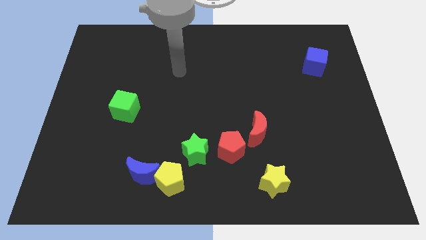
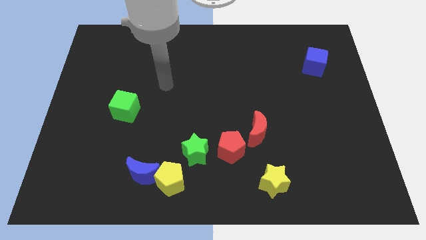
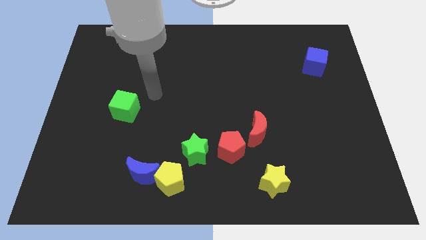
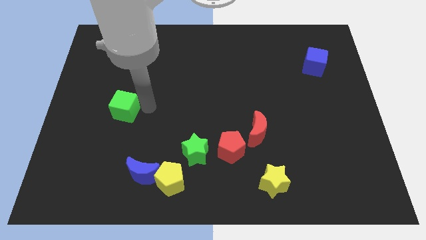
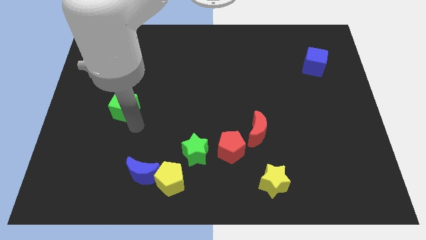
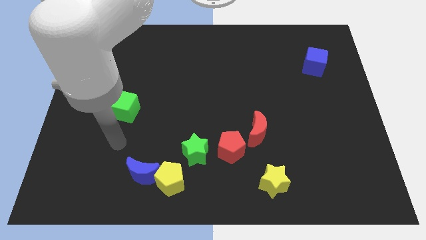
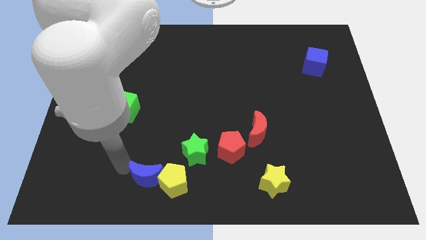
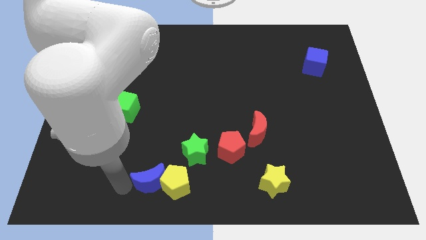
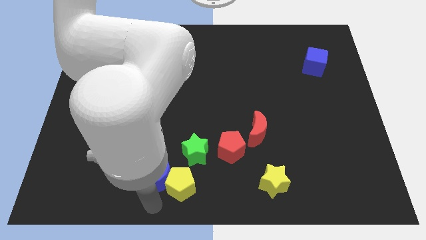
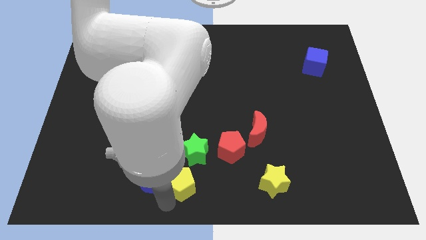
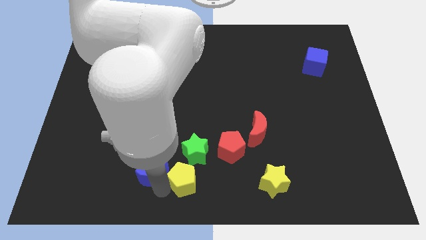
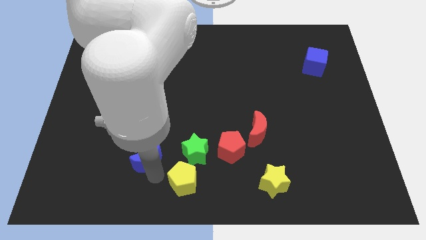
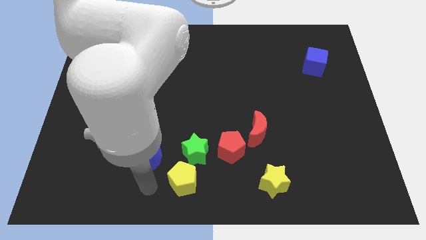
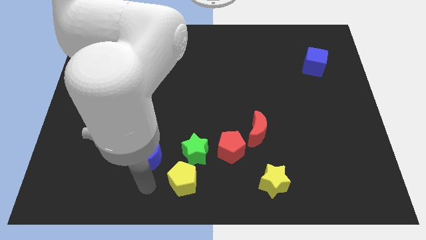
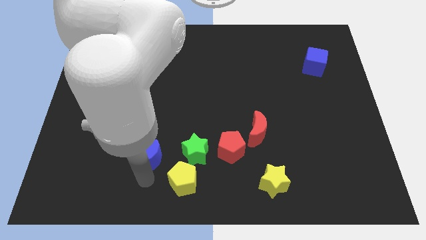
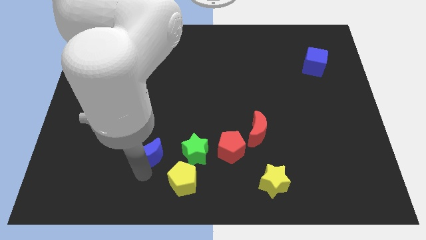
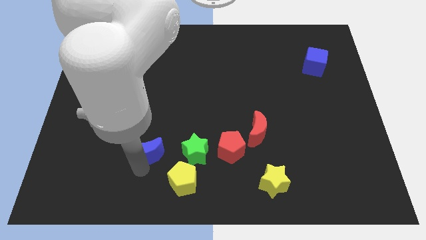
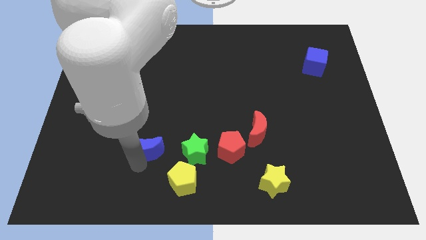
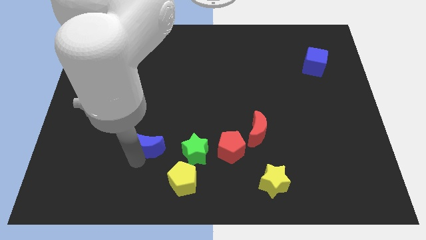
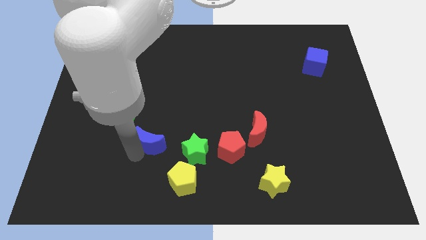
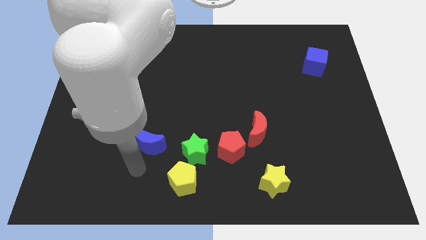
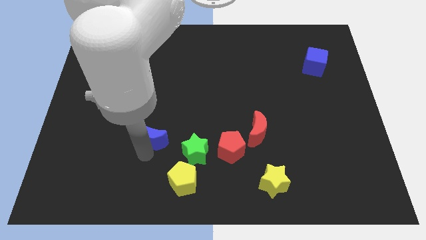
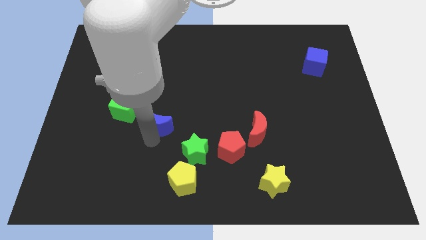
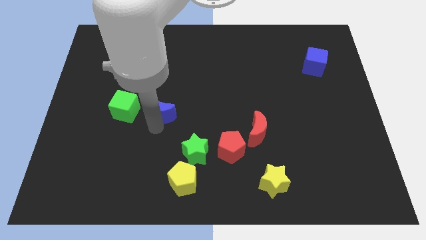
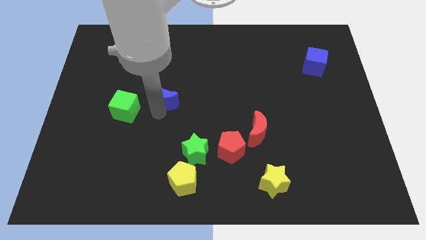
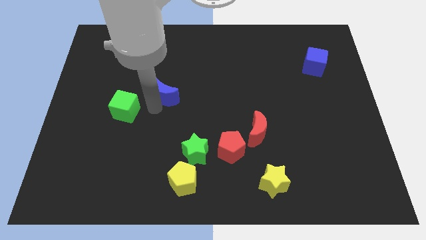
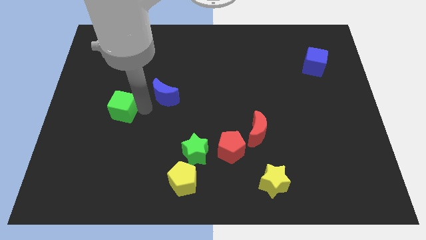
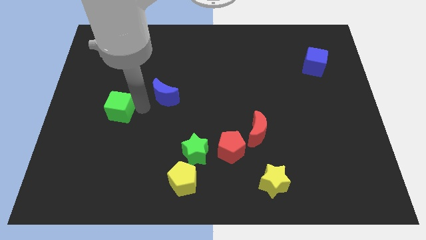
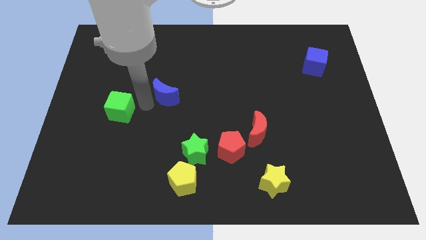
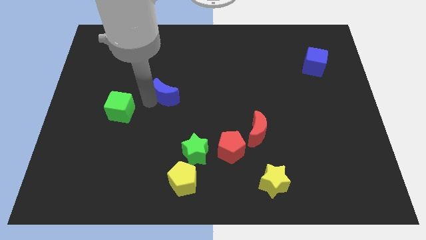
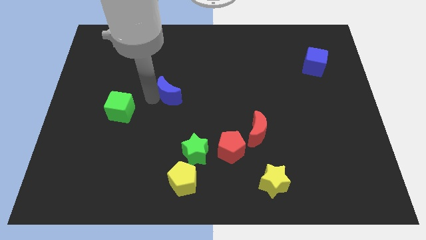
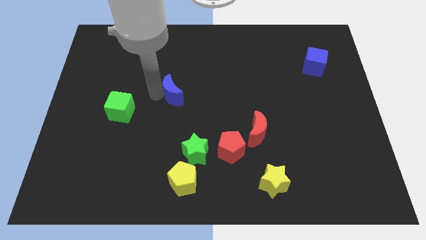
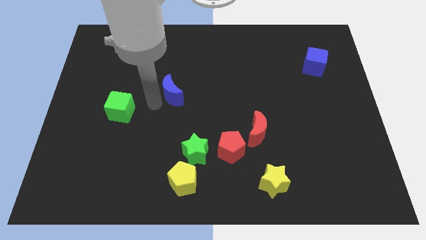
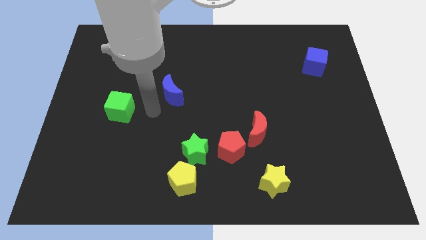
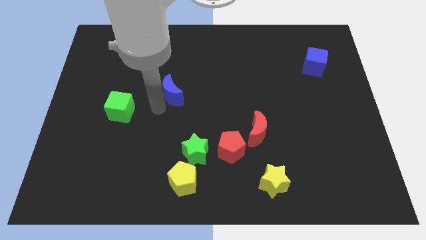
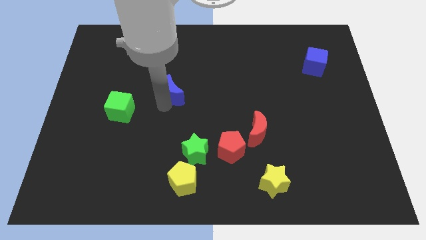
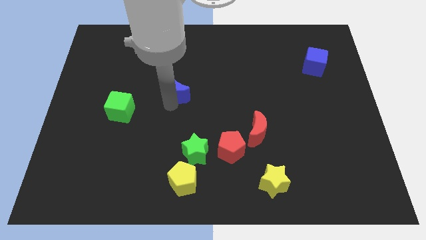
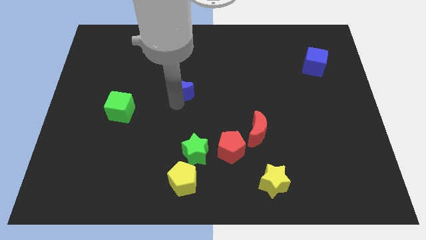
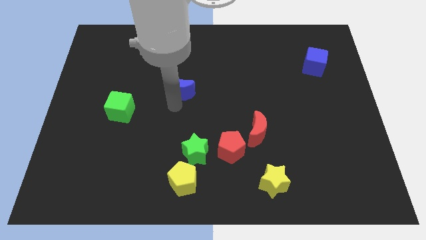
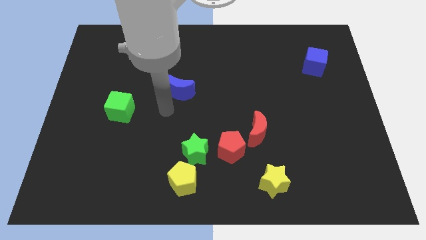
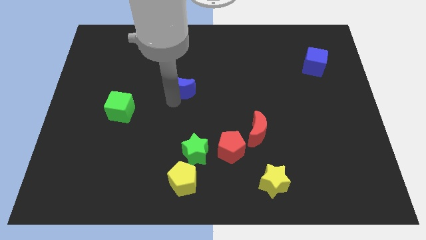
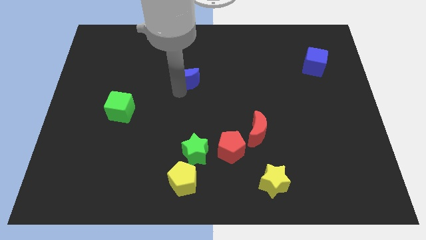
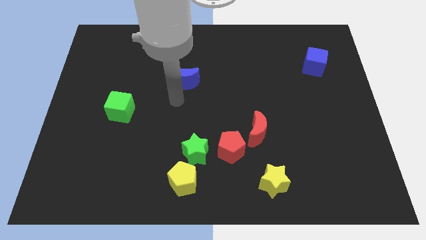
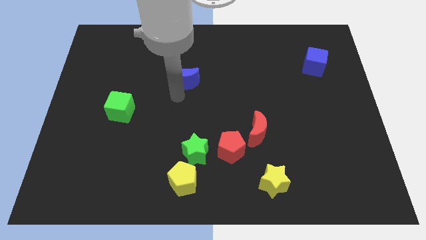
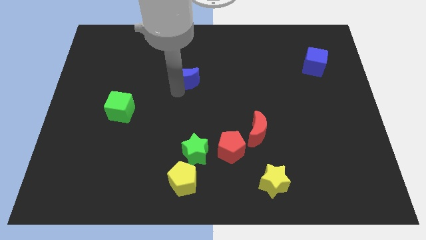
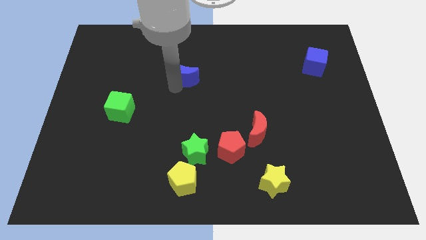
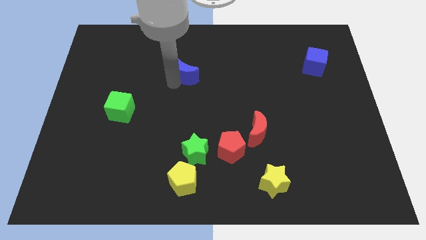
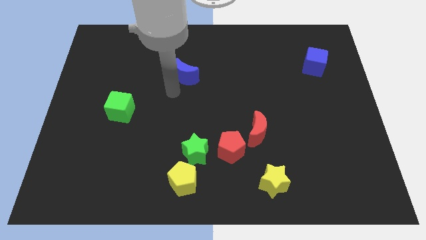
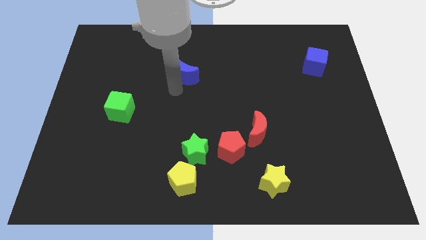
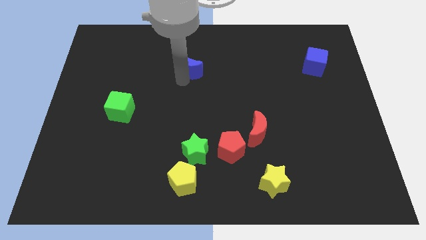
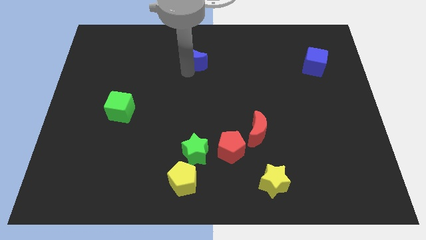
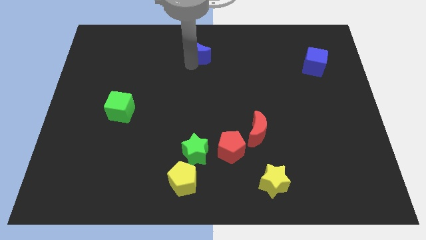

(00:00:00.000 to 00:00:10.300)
slide the blue moon to the top
